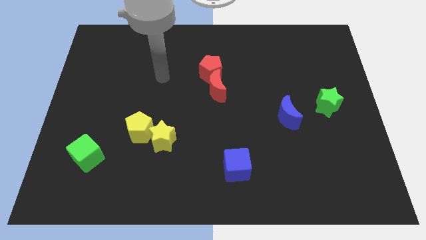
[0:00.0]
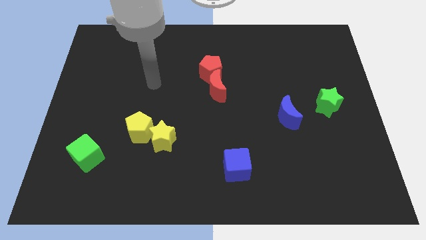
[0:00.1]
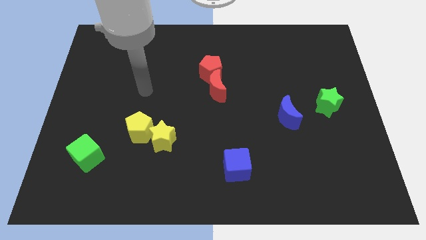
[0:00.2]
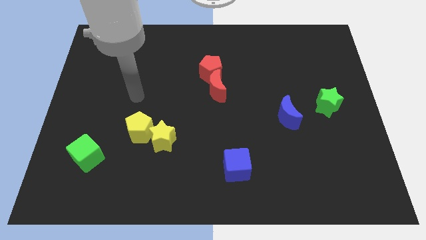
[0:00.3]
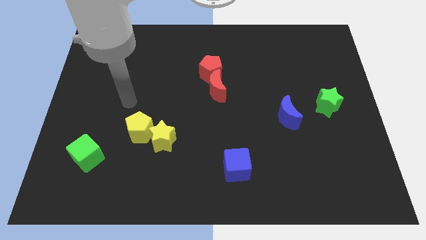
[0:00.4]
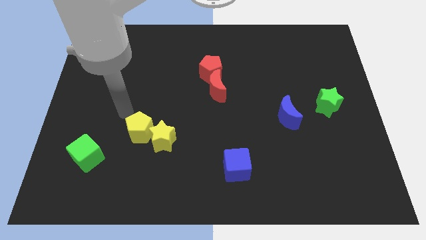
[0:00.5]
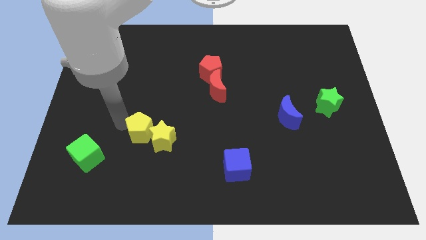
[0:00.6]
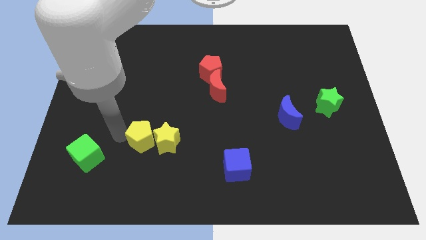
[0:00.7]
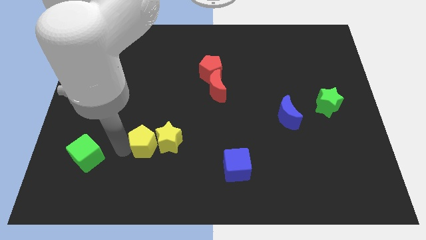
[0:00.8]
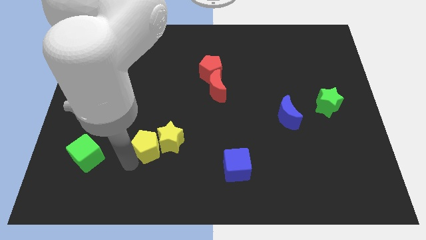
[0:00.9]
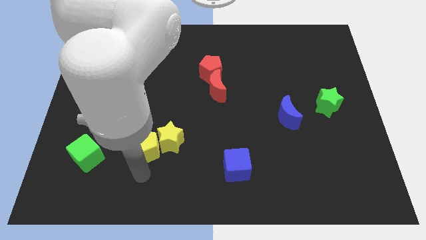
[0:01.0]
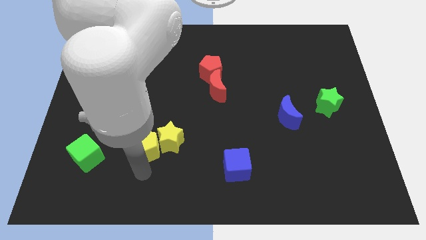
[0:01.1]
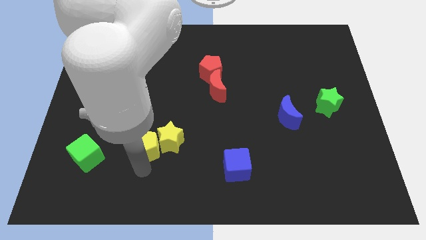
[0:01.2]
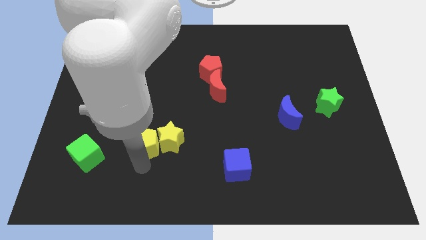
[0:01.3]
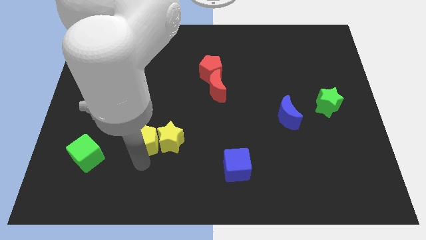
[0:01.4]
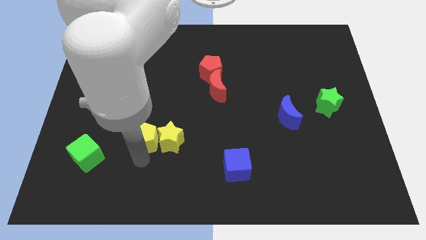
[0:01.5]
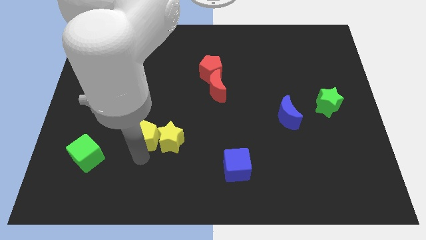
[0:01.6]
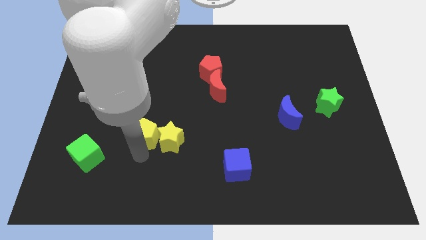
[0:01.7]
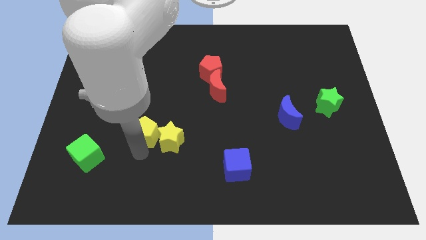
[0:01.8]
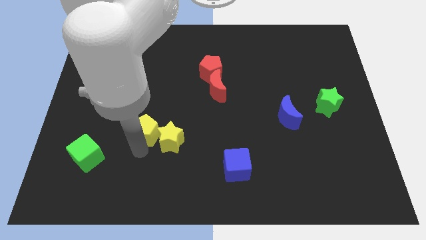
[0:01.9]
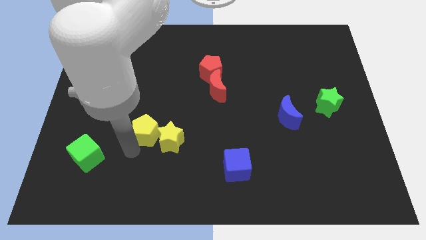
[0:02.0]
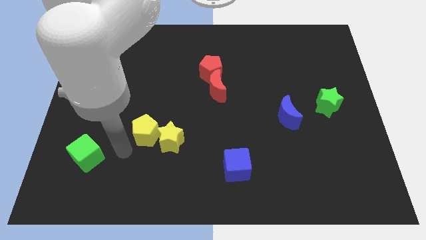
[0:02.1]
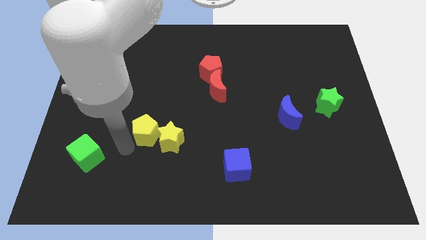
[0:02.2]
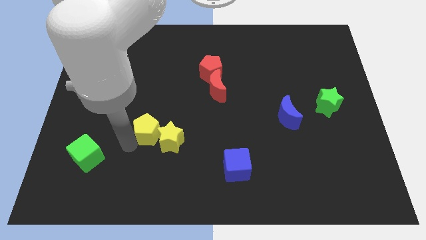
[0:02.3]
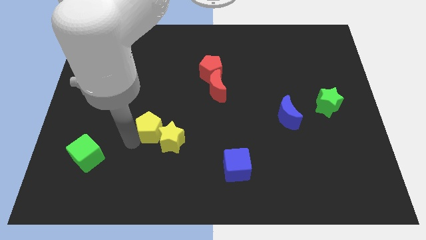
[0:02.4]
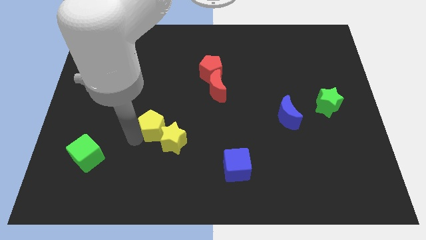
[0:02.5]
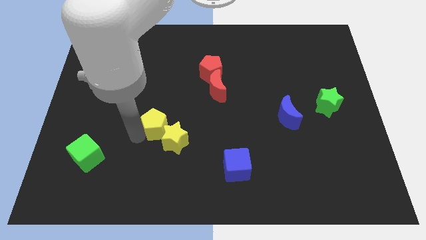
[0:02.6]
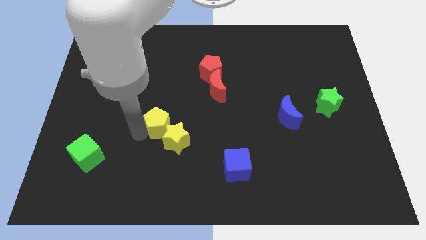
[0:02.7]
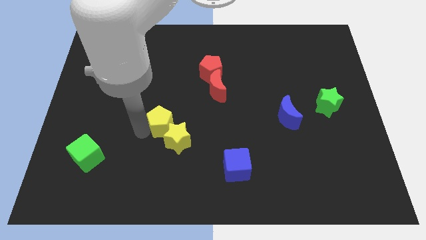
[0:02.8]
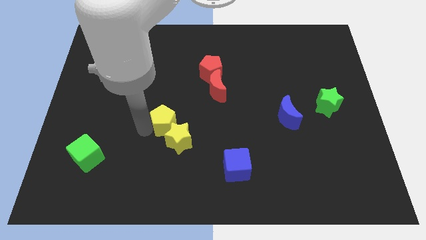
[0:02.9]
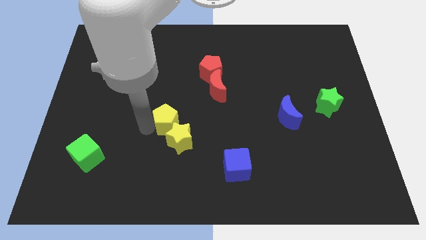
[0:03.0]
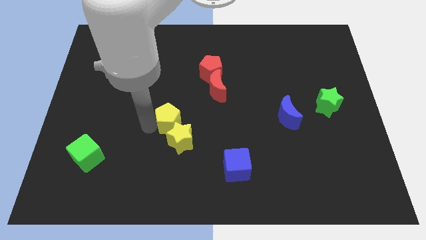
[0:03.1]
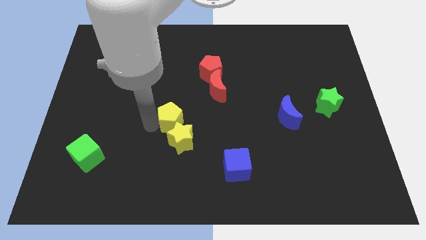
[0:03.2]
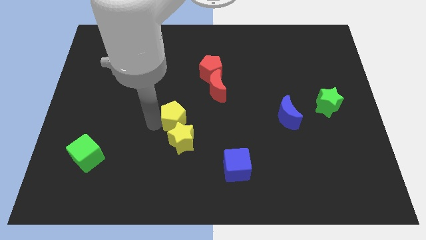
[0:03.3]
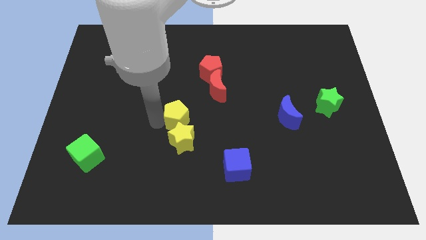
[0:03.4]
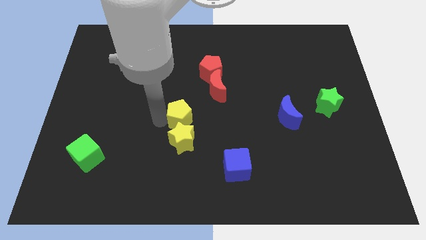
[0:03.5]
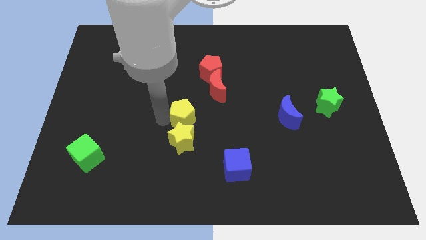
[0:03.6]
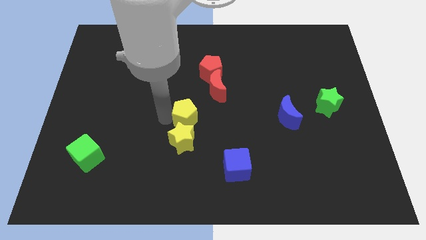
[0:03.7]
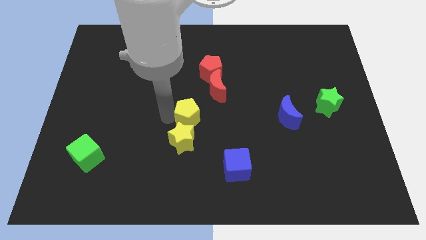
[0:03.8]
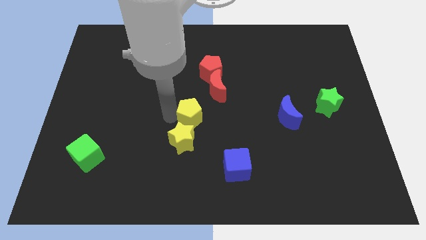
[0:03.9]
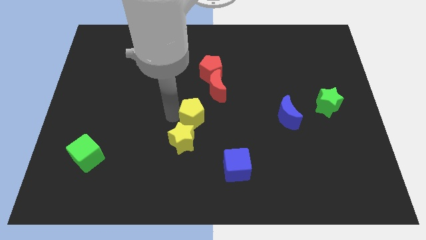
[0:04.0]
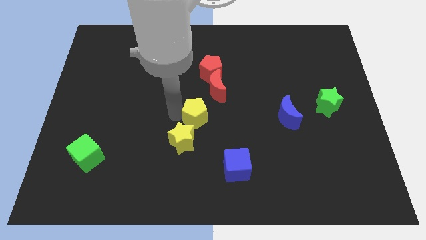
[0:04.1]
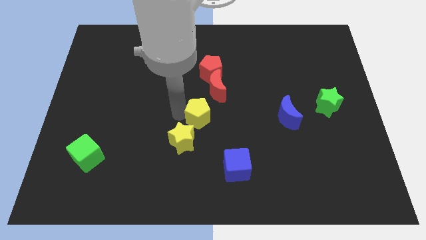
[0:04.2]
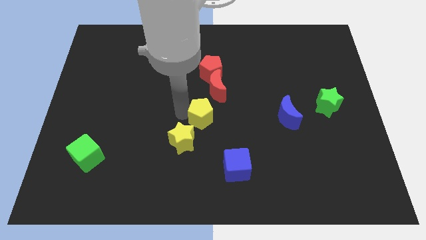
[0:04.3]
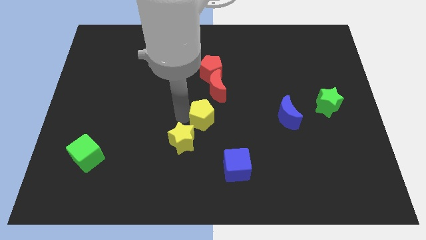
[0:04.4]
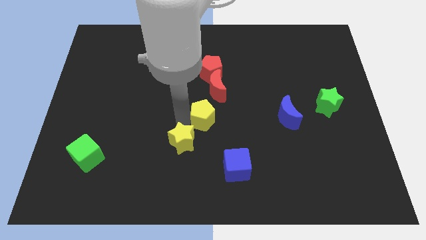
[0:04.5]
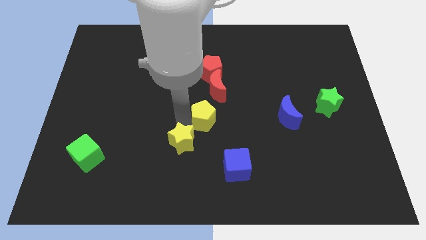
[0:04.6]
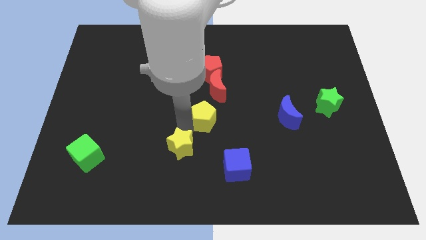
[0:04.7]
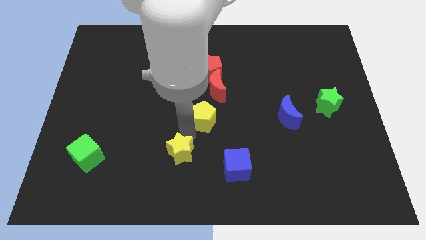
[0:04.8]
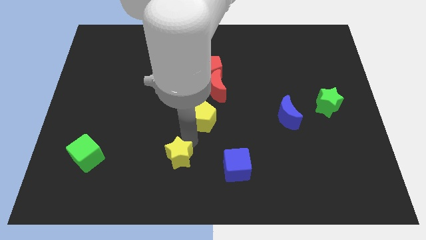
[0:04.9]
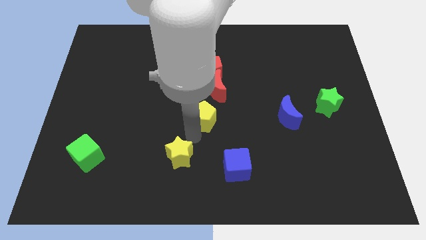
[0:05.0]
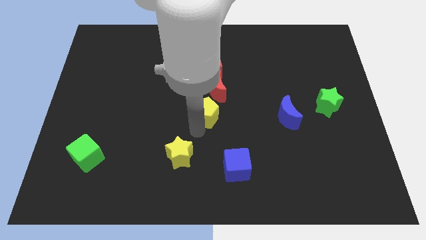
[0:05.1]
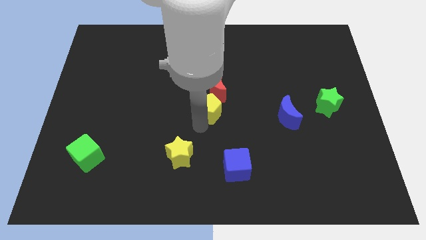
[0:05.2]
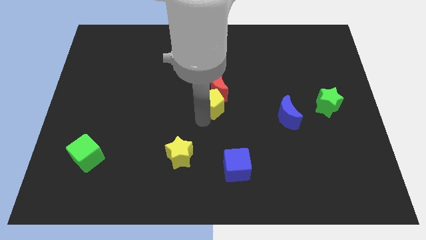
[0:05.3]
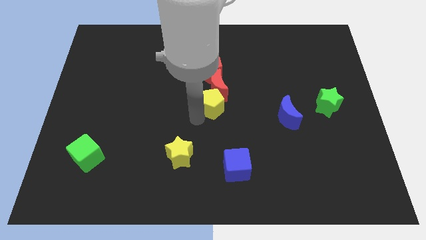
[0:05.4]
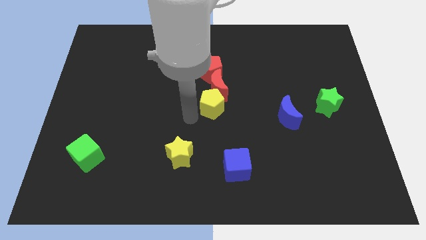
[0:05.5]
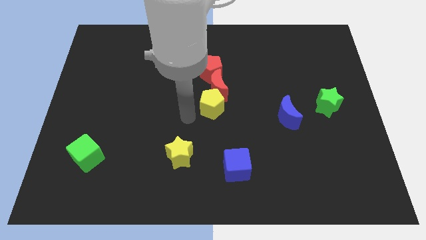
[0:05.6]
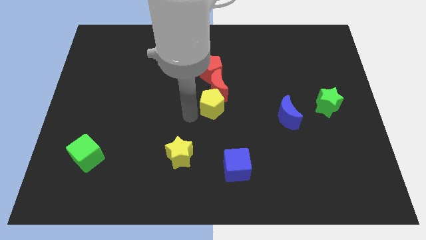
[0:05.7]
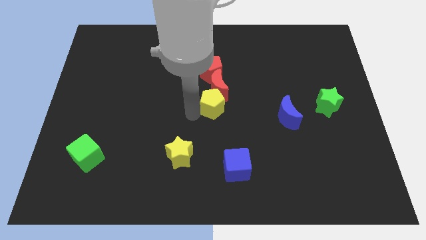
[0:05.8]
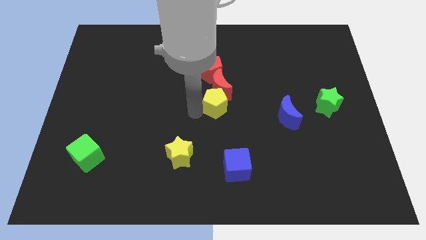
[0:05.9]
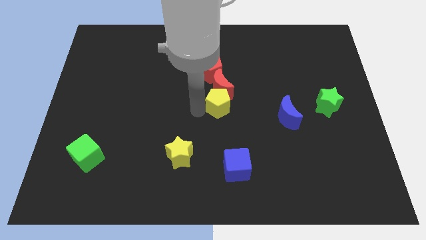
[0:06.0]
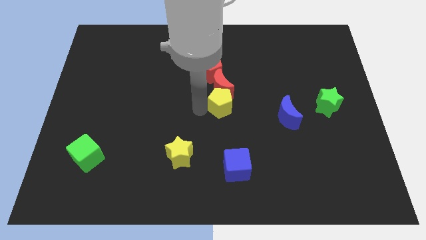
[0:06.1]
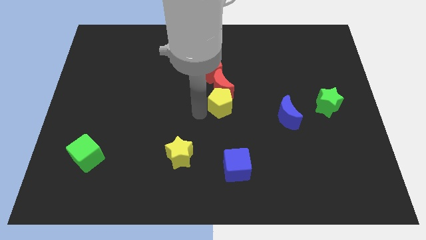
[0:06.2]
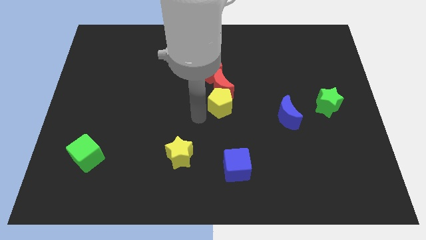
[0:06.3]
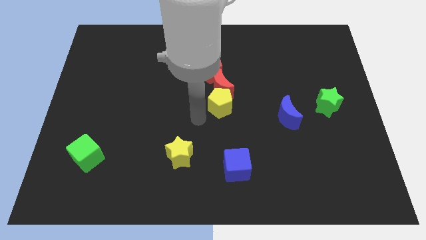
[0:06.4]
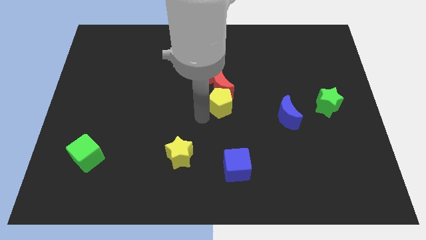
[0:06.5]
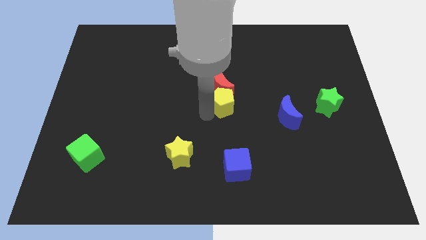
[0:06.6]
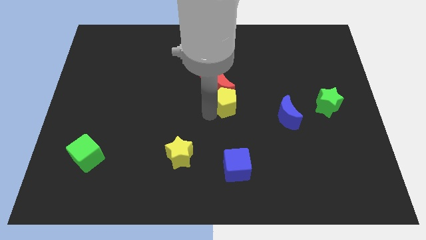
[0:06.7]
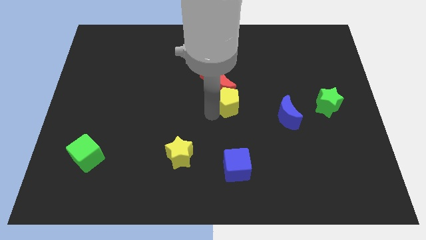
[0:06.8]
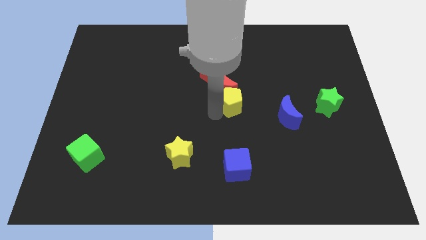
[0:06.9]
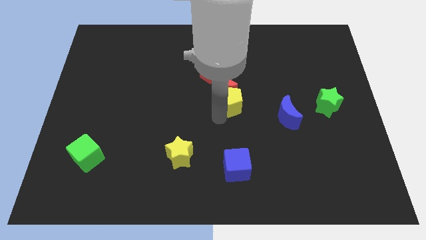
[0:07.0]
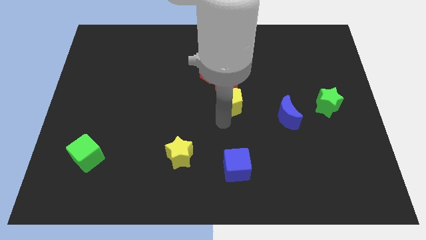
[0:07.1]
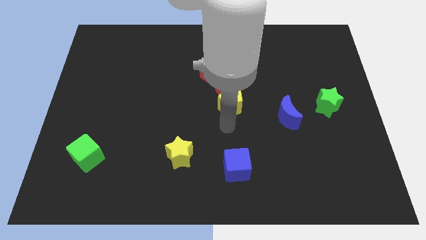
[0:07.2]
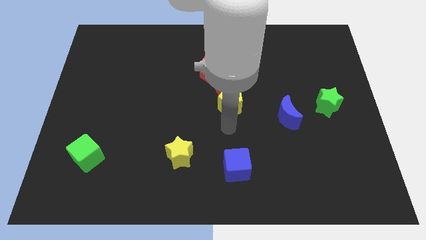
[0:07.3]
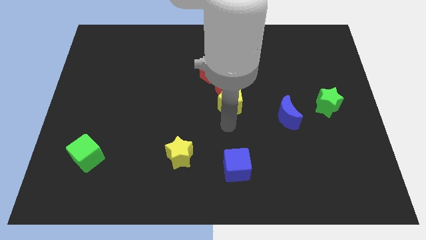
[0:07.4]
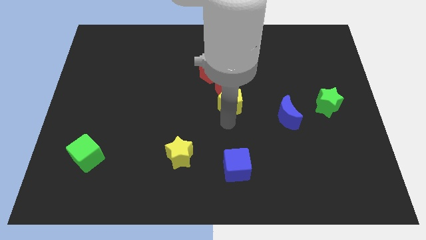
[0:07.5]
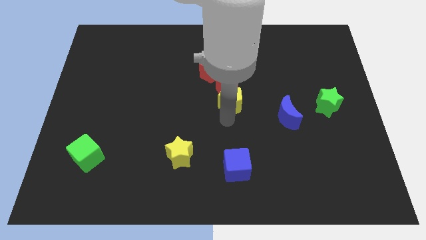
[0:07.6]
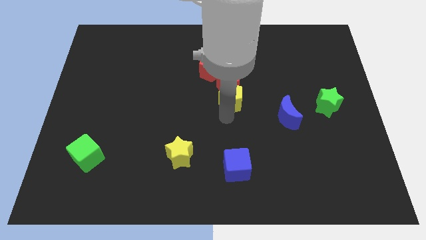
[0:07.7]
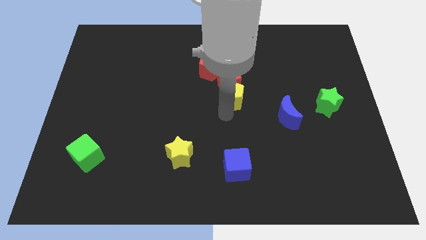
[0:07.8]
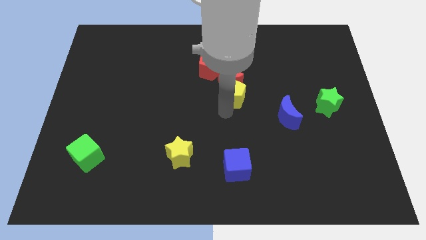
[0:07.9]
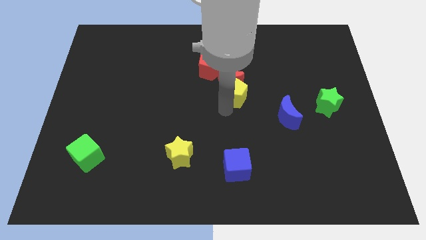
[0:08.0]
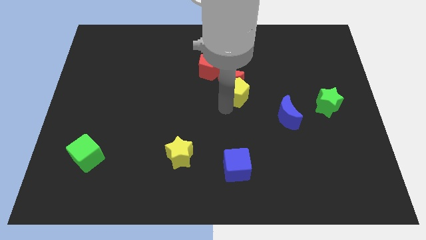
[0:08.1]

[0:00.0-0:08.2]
slide the yellow pentagon up and right
